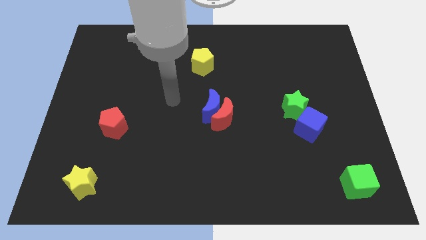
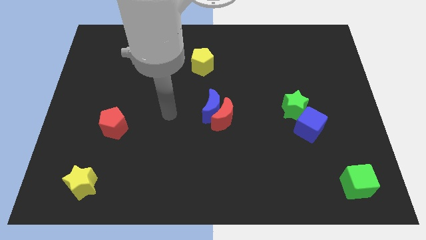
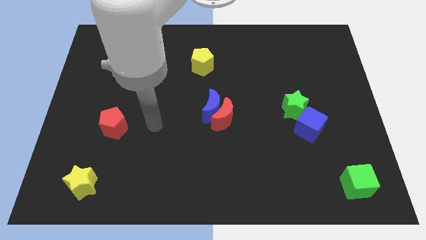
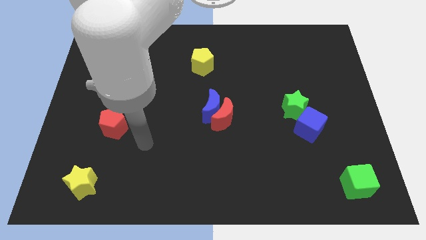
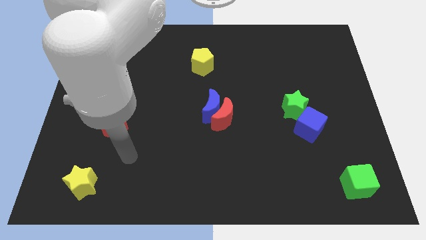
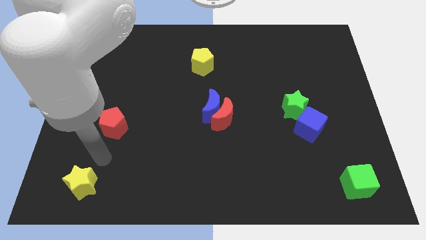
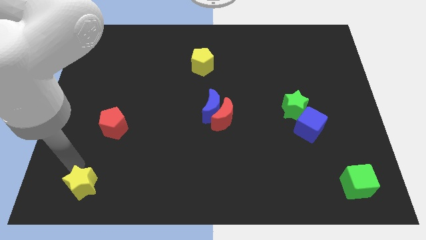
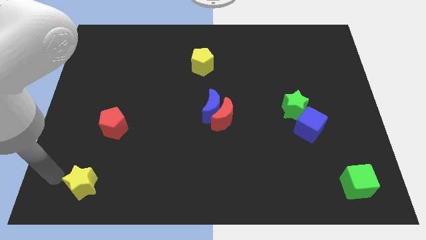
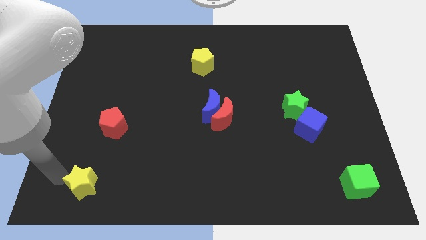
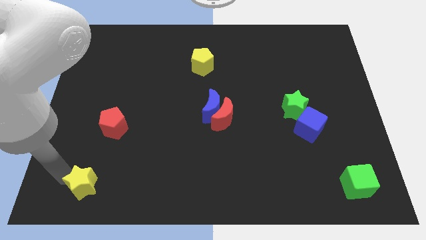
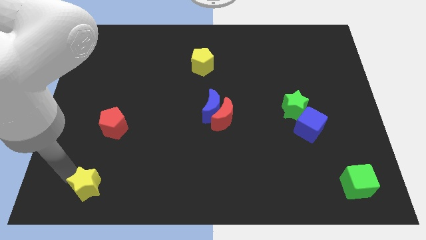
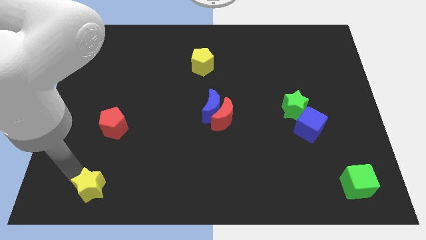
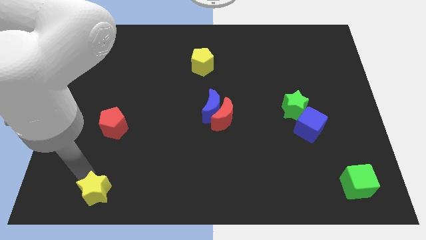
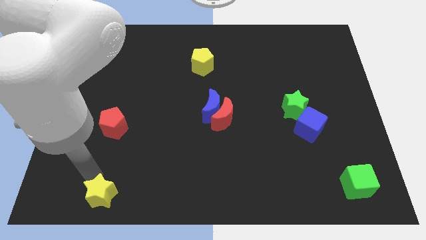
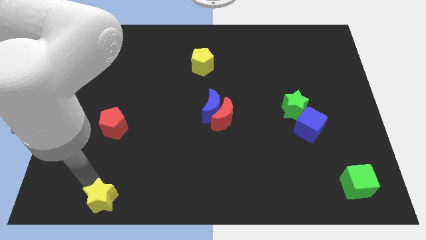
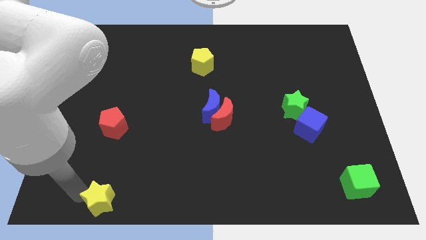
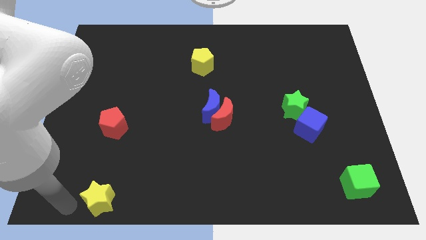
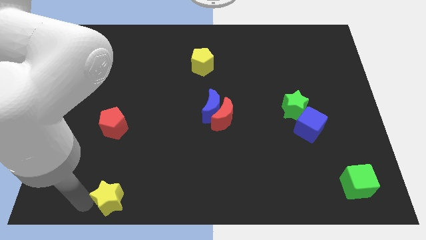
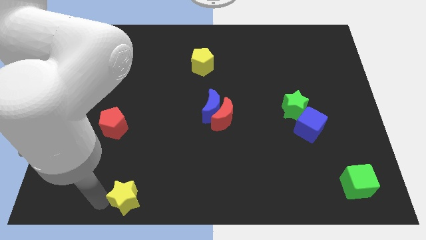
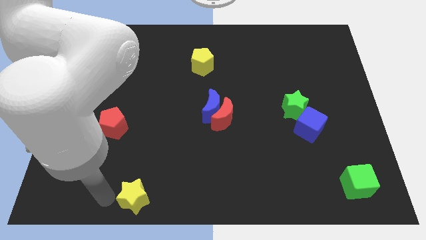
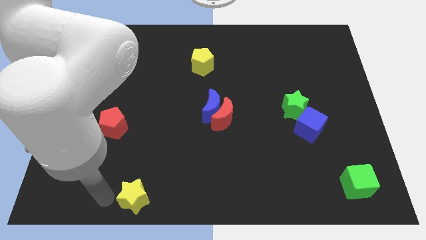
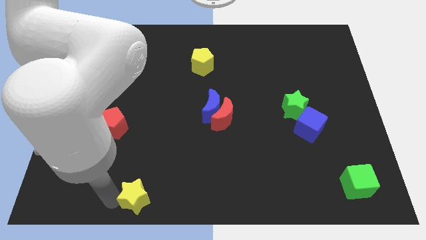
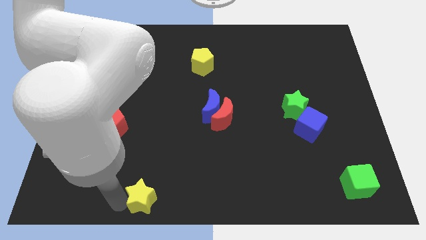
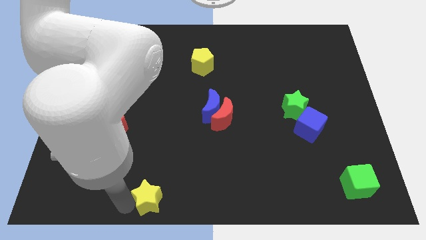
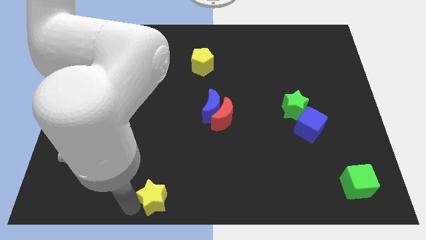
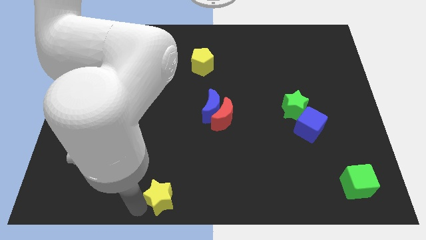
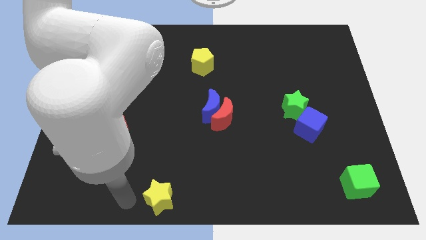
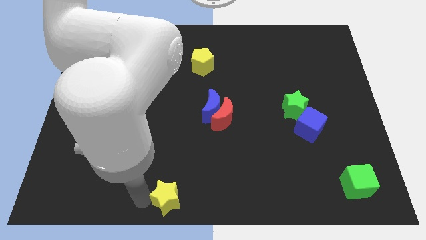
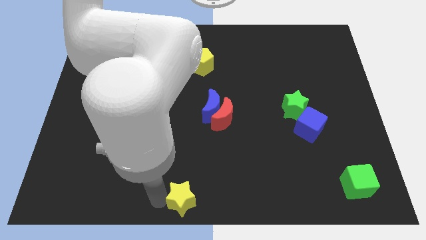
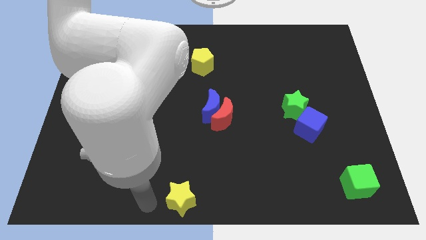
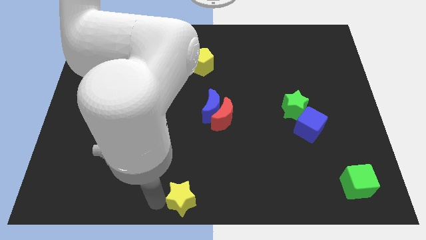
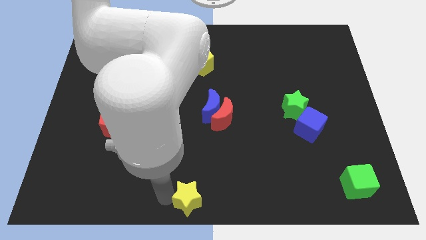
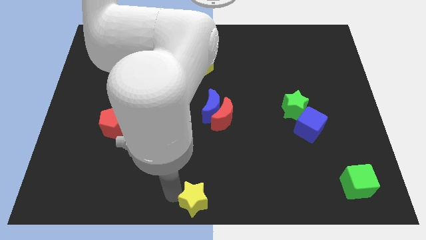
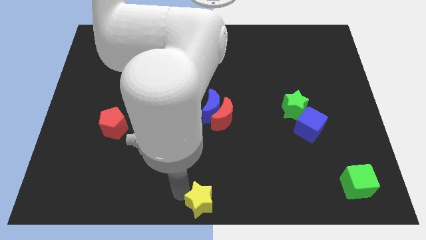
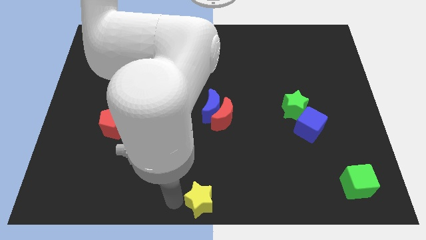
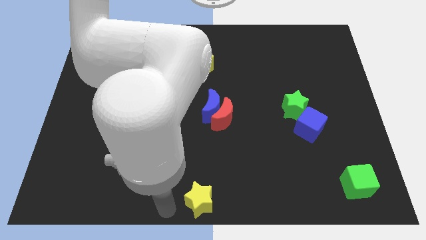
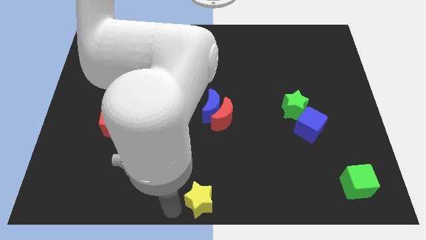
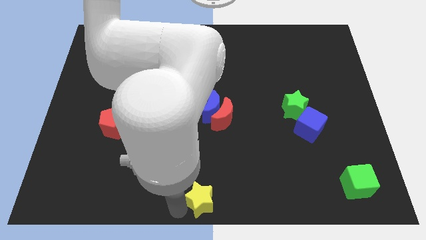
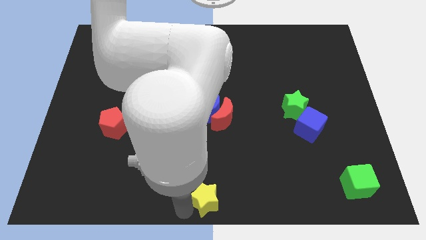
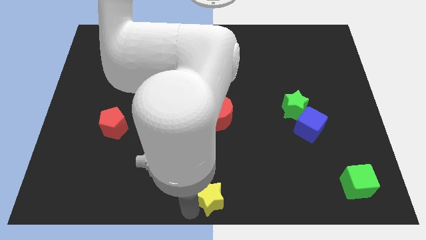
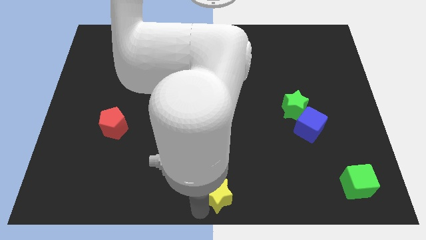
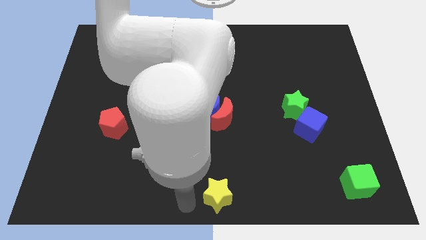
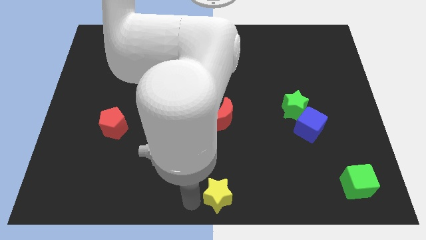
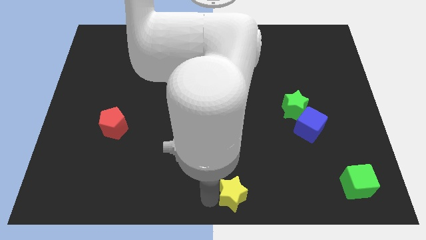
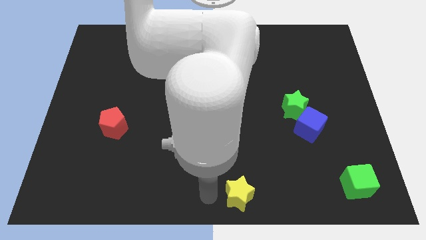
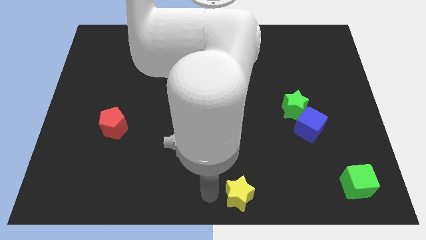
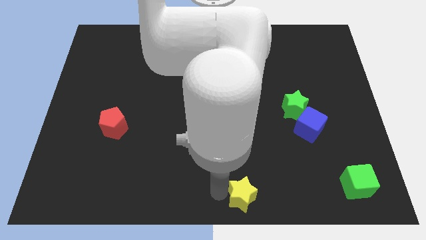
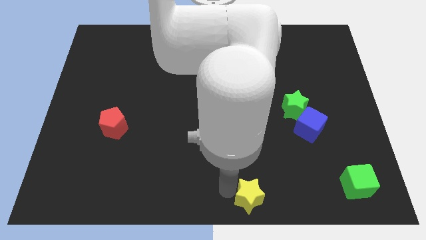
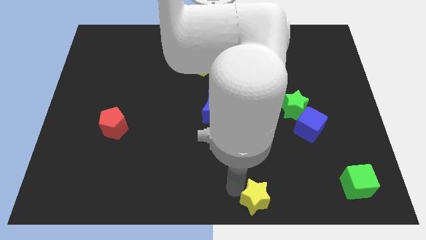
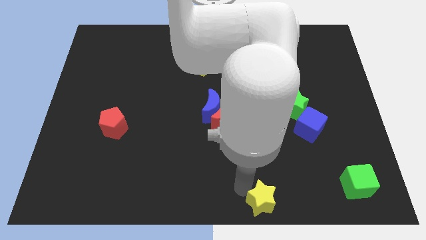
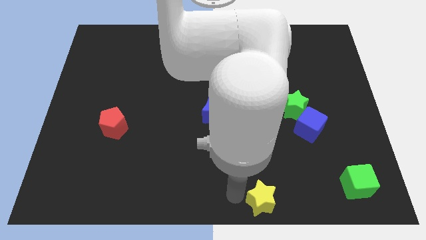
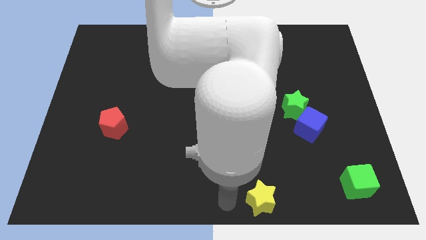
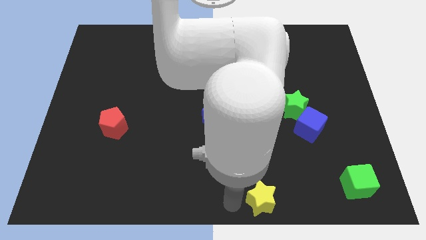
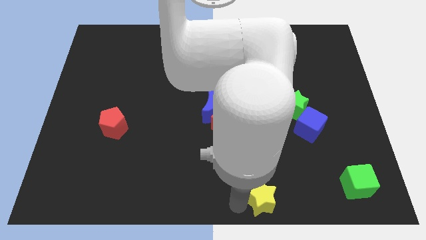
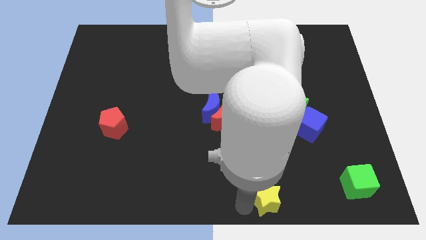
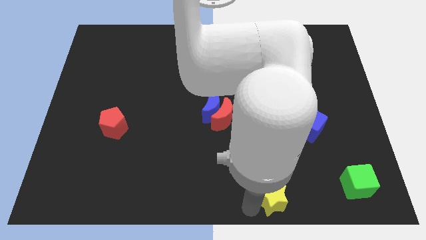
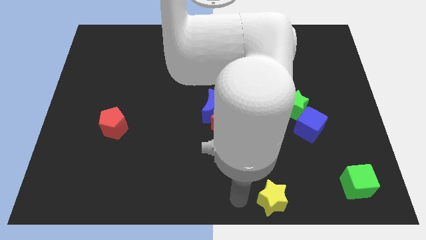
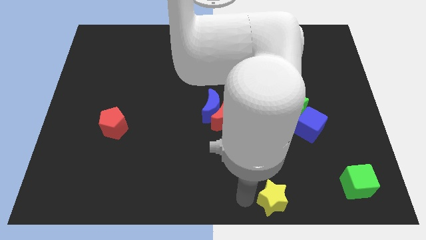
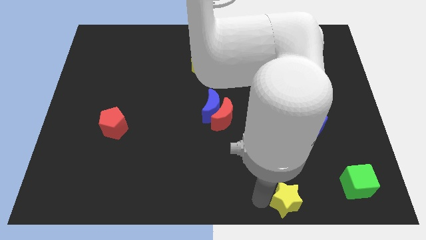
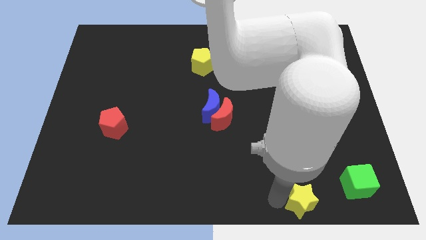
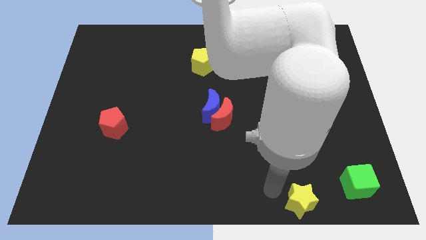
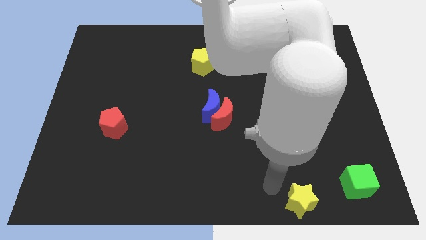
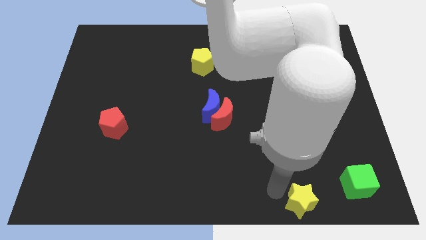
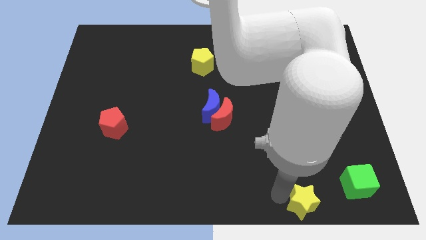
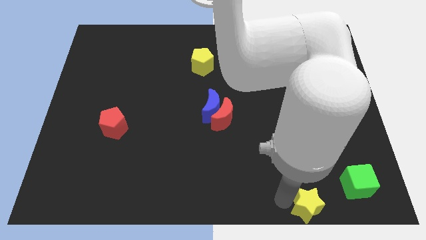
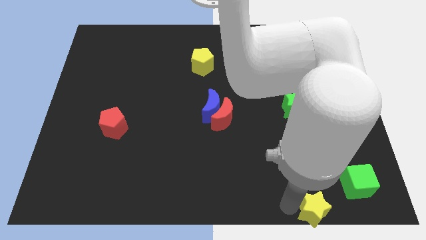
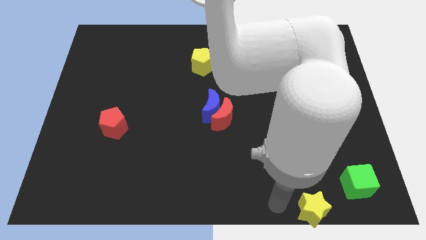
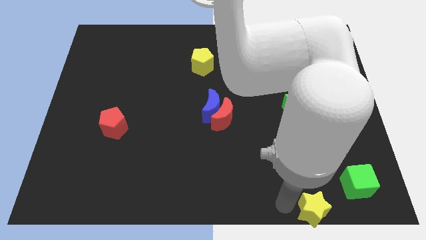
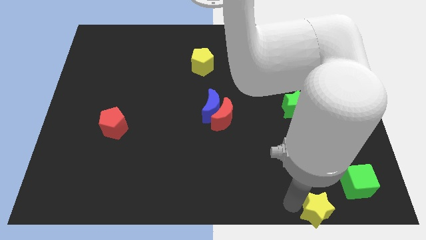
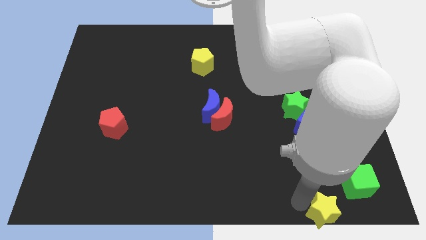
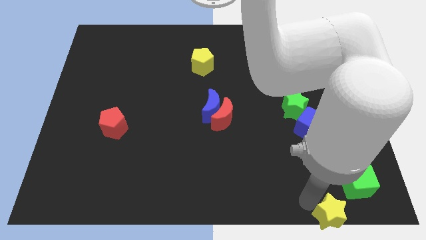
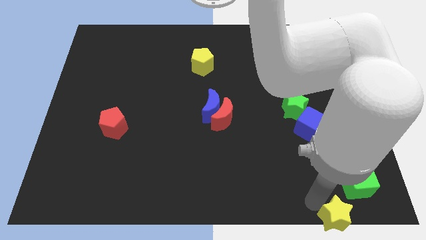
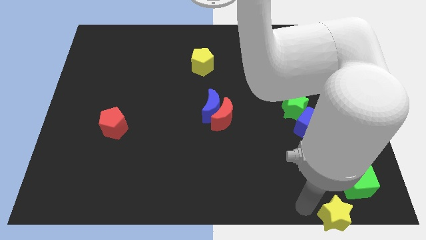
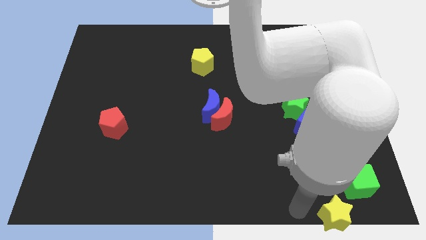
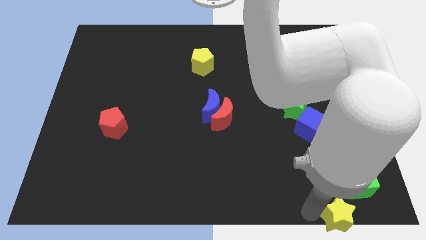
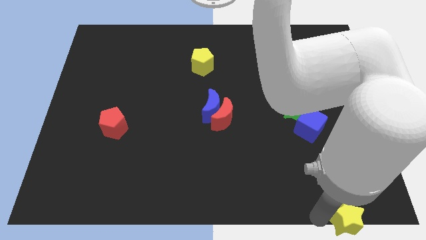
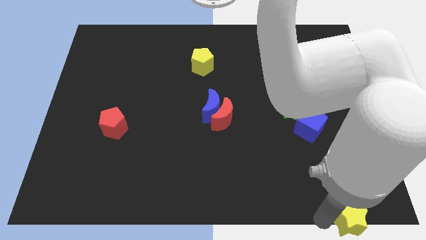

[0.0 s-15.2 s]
push the yellow star to the bottom right of the board
